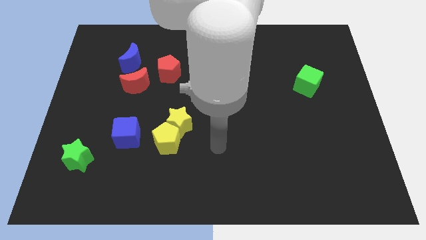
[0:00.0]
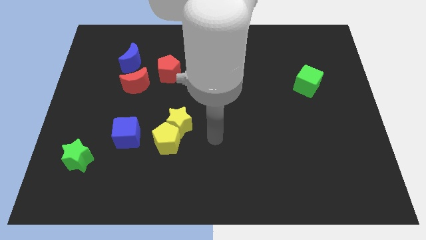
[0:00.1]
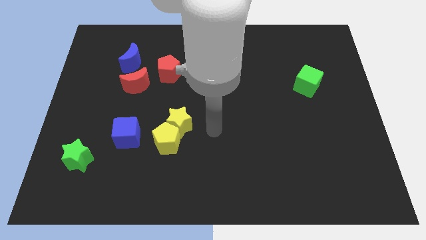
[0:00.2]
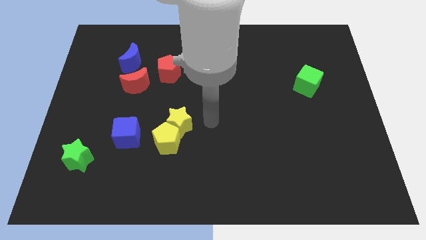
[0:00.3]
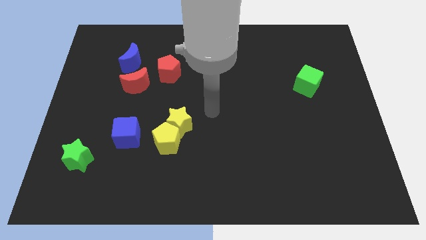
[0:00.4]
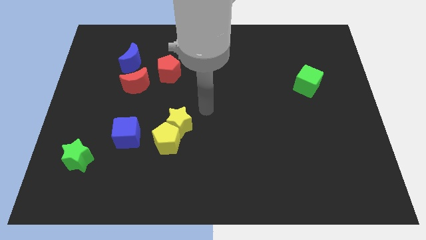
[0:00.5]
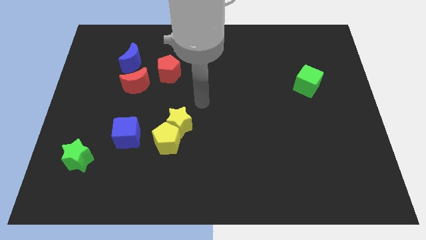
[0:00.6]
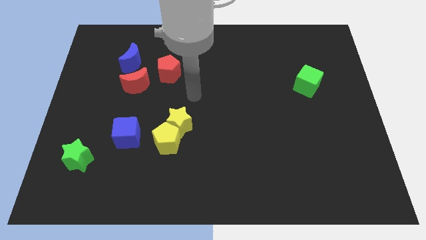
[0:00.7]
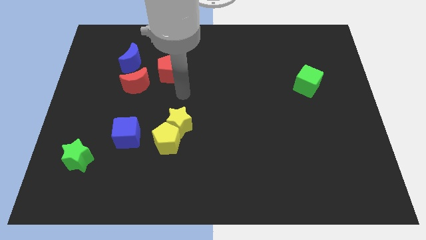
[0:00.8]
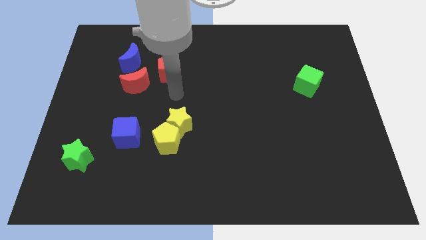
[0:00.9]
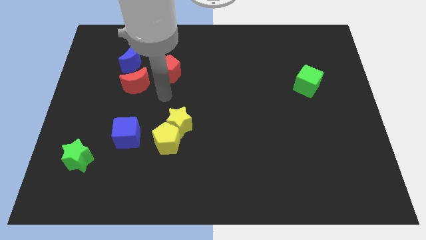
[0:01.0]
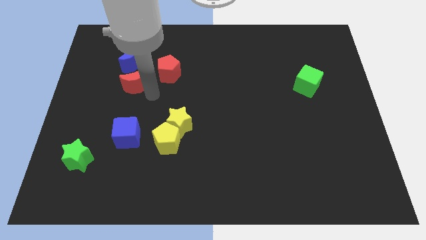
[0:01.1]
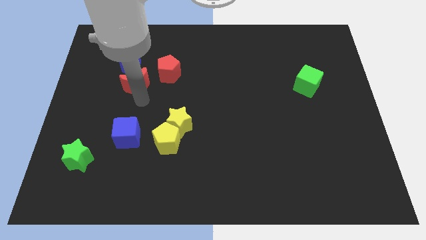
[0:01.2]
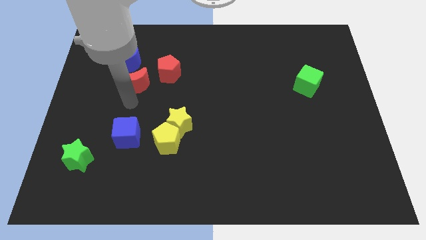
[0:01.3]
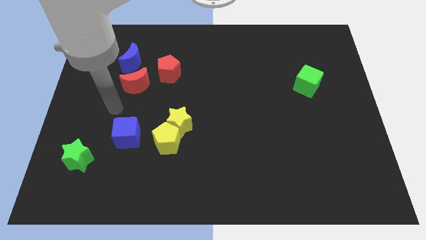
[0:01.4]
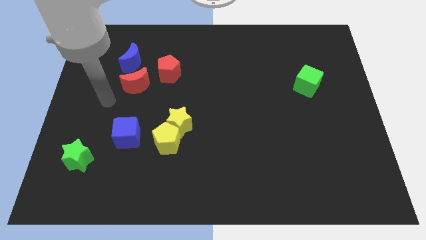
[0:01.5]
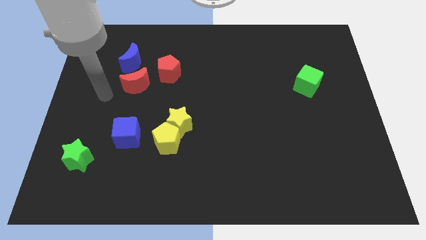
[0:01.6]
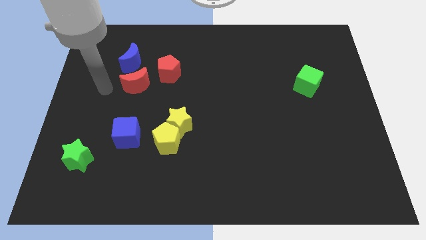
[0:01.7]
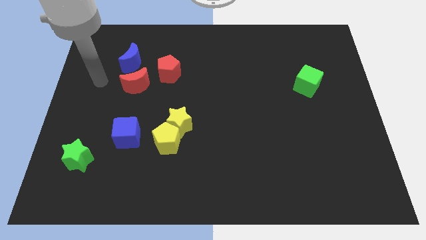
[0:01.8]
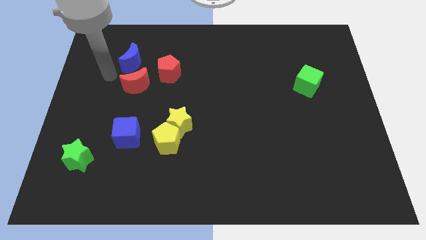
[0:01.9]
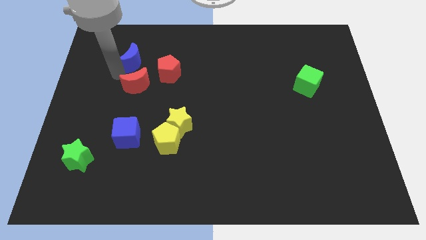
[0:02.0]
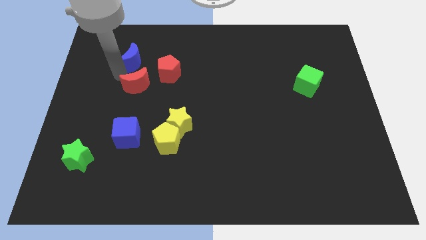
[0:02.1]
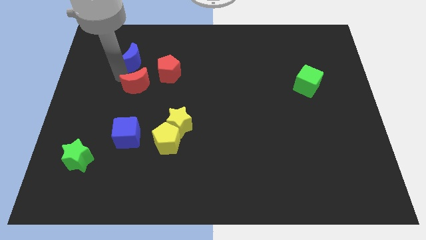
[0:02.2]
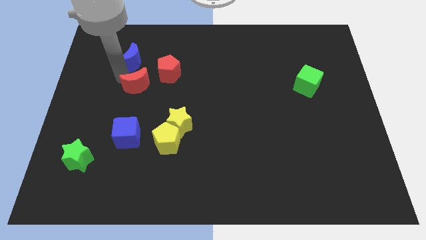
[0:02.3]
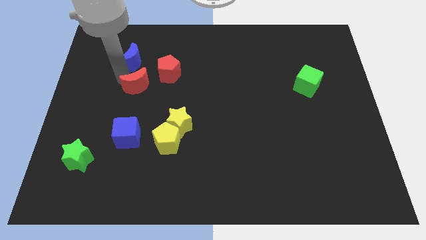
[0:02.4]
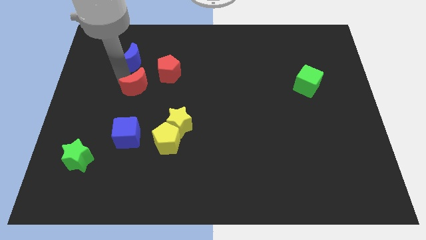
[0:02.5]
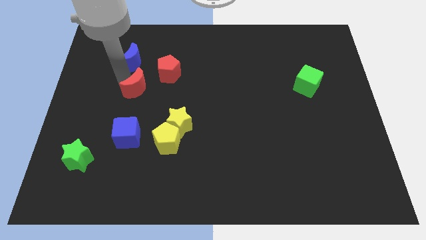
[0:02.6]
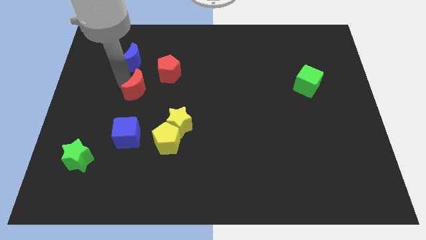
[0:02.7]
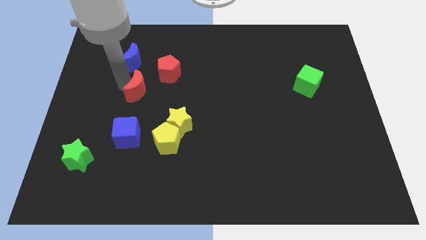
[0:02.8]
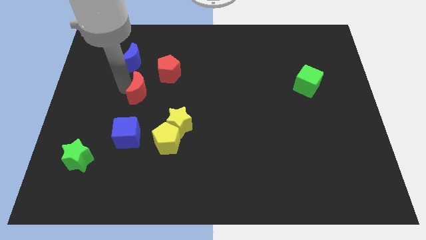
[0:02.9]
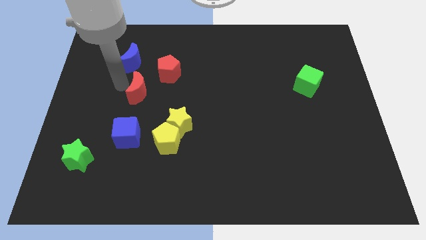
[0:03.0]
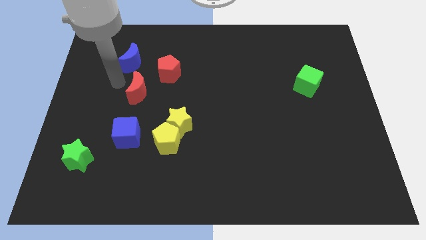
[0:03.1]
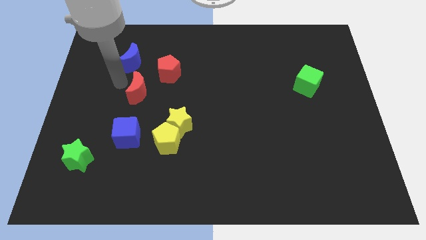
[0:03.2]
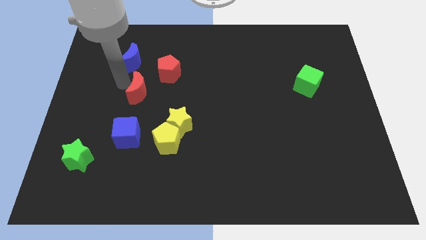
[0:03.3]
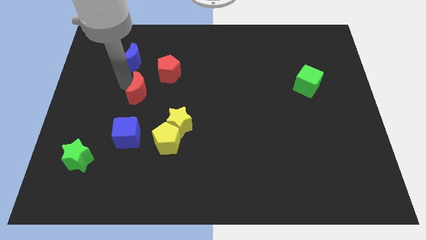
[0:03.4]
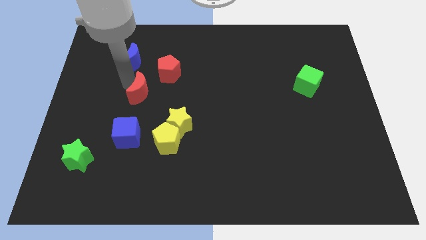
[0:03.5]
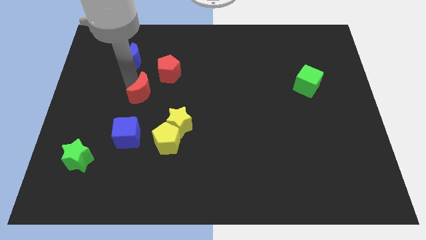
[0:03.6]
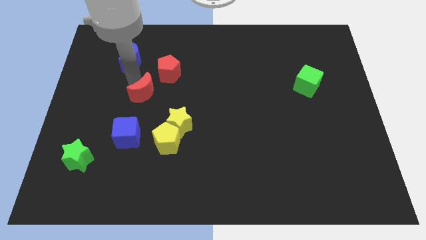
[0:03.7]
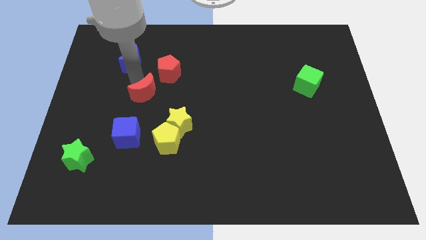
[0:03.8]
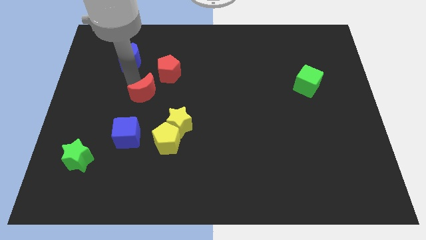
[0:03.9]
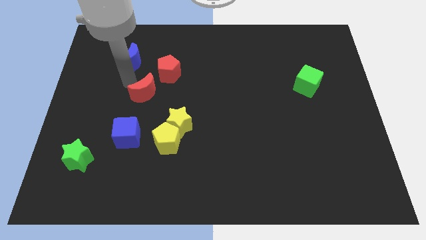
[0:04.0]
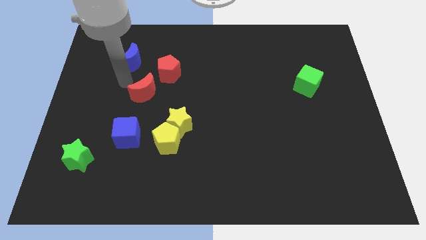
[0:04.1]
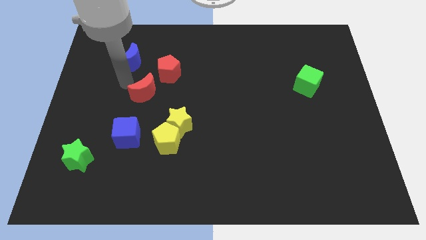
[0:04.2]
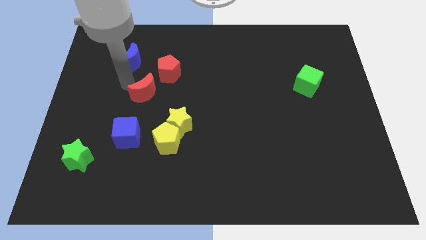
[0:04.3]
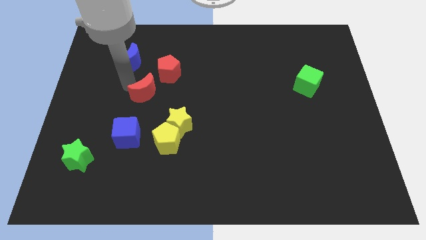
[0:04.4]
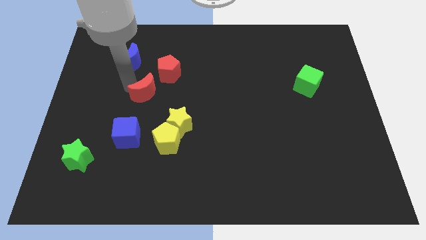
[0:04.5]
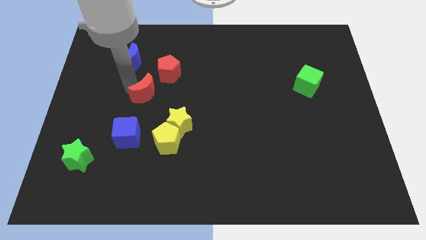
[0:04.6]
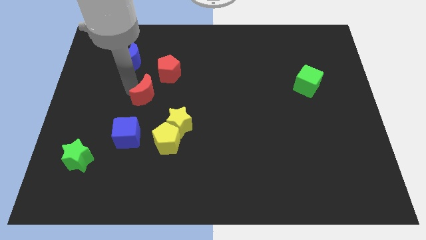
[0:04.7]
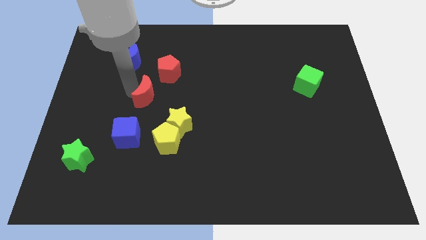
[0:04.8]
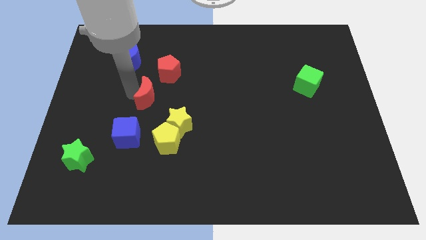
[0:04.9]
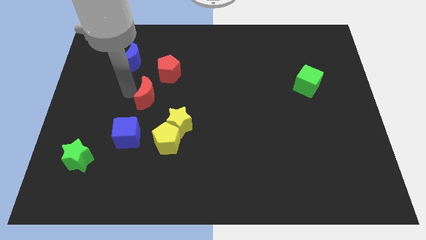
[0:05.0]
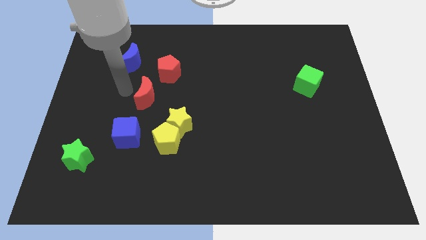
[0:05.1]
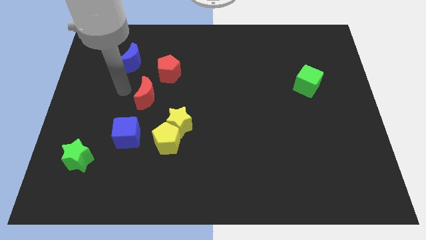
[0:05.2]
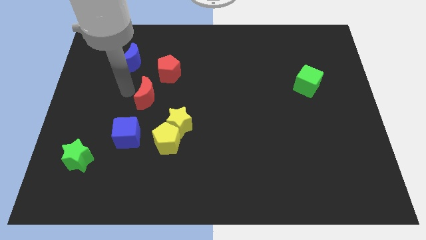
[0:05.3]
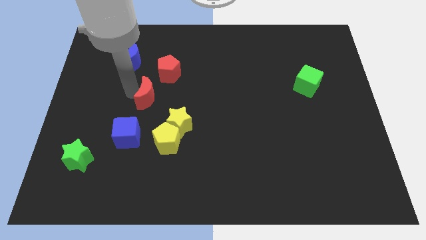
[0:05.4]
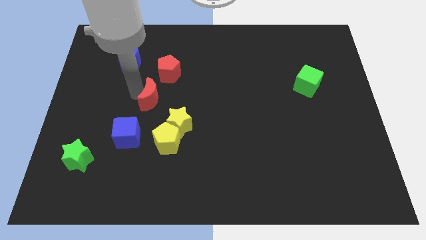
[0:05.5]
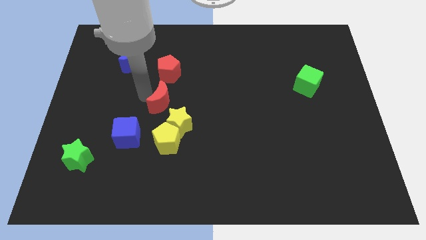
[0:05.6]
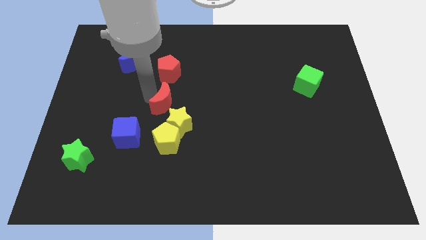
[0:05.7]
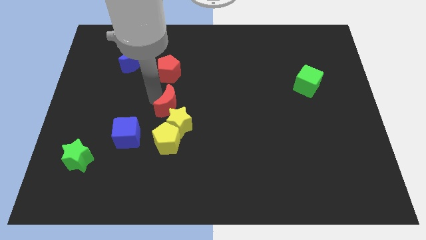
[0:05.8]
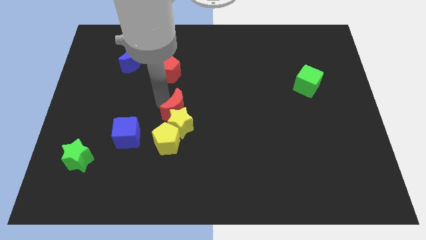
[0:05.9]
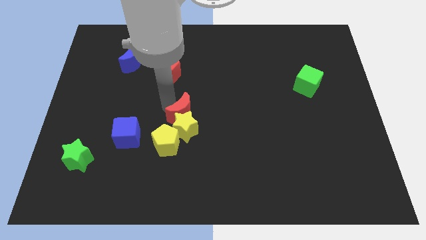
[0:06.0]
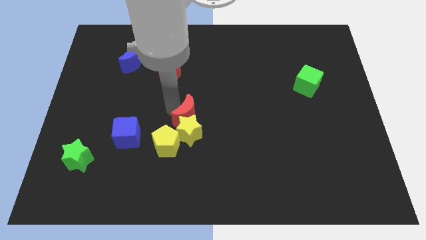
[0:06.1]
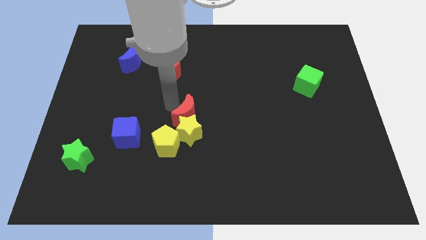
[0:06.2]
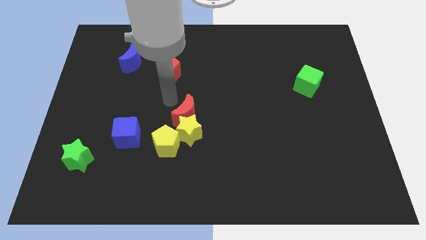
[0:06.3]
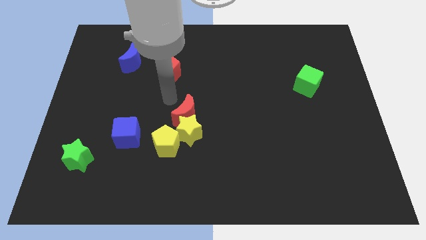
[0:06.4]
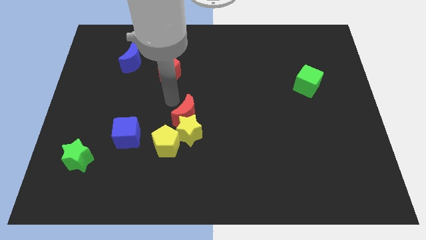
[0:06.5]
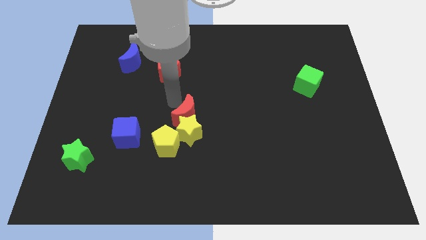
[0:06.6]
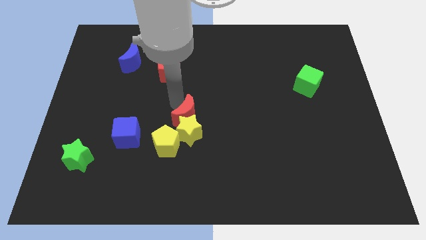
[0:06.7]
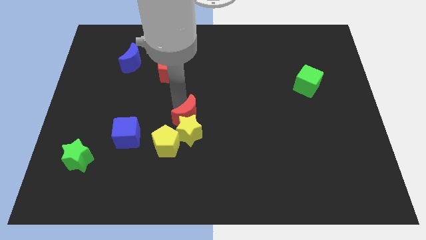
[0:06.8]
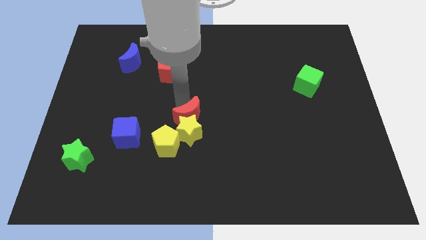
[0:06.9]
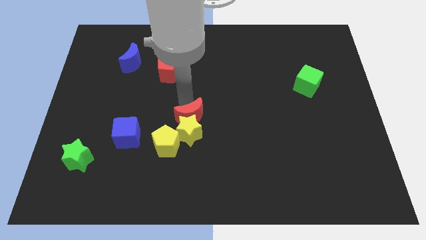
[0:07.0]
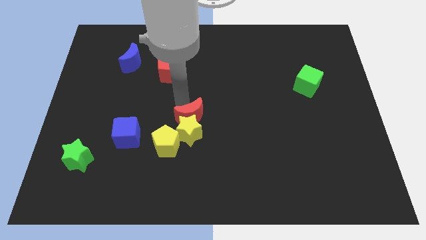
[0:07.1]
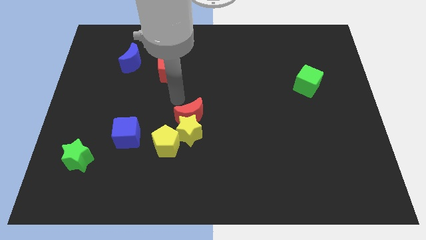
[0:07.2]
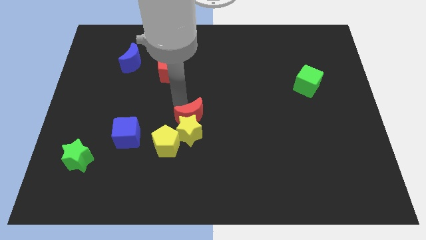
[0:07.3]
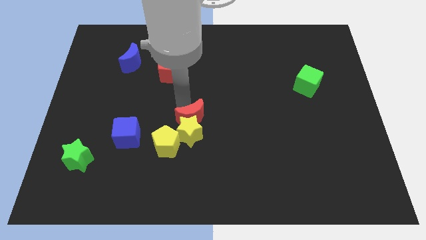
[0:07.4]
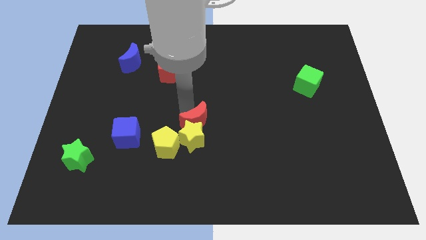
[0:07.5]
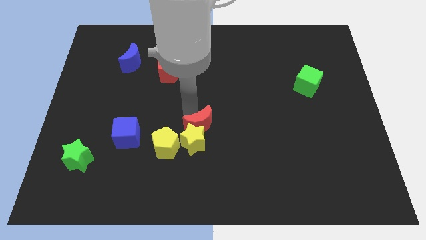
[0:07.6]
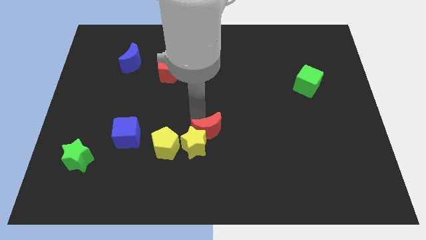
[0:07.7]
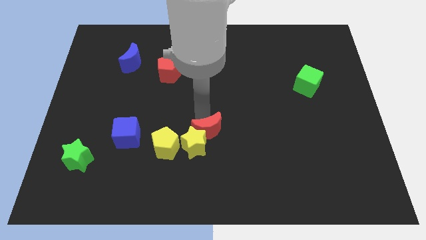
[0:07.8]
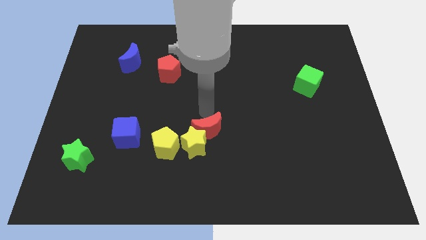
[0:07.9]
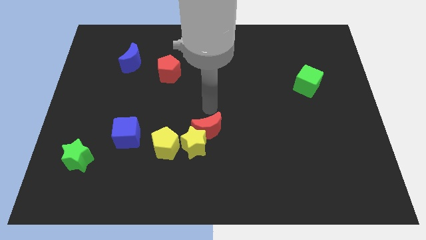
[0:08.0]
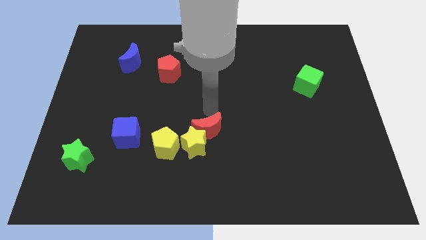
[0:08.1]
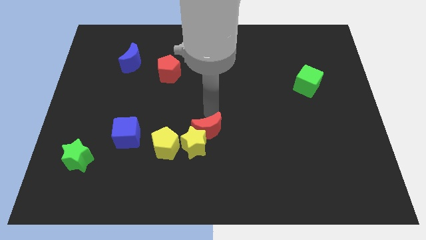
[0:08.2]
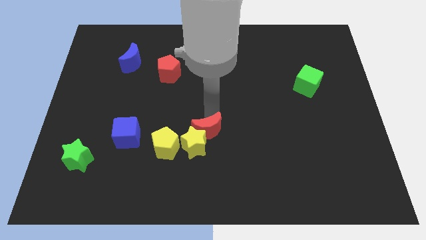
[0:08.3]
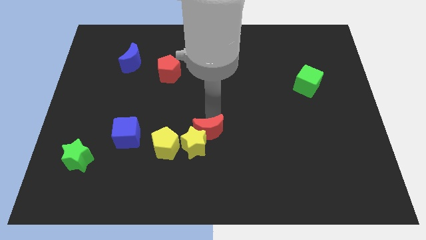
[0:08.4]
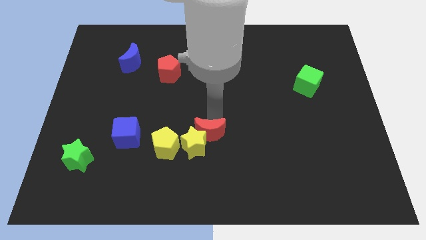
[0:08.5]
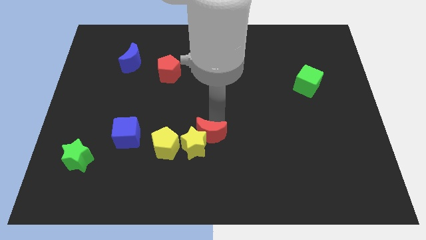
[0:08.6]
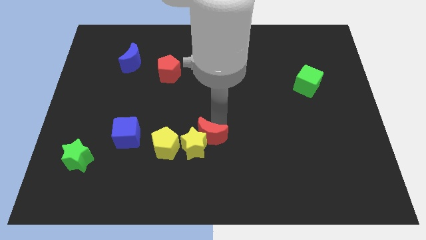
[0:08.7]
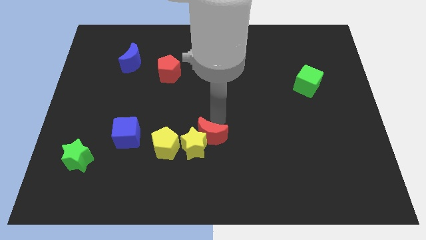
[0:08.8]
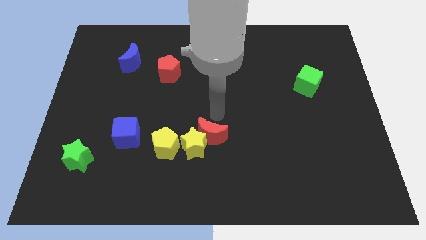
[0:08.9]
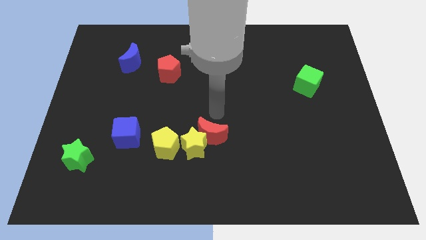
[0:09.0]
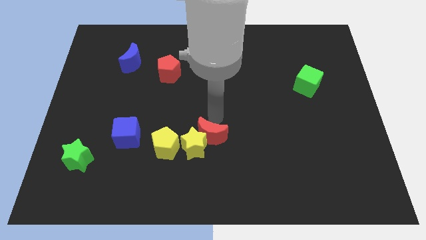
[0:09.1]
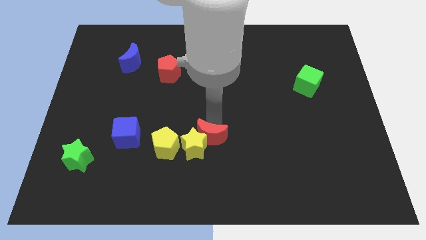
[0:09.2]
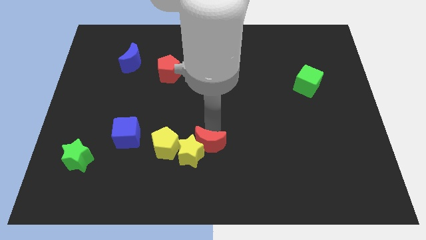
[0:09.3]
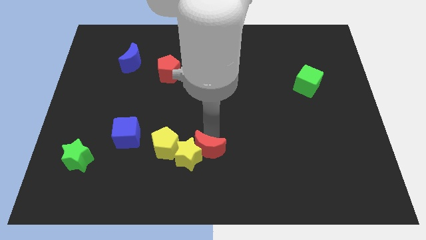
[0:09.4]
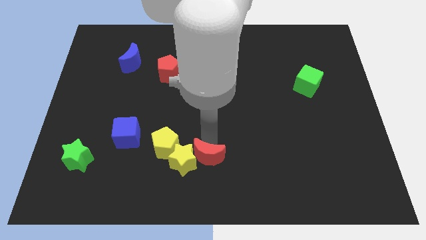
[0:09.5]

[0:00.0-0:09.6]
put the red moon to the bottom side
